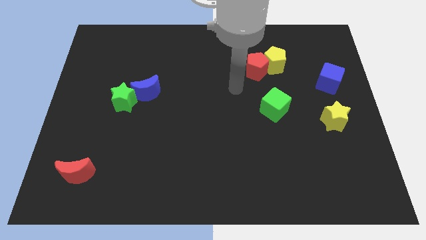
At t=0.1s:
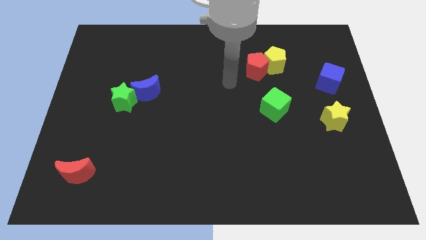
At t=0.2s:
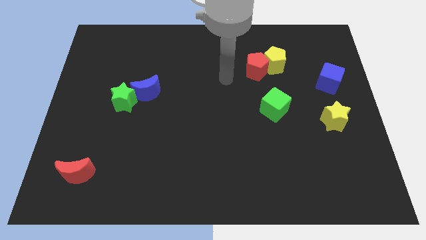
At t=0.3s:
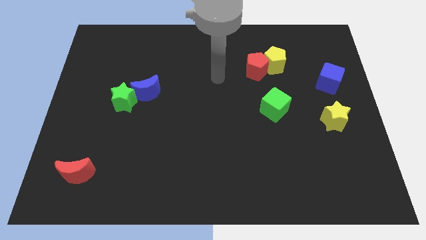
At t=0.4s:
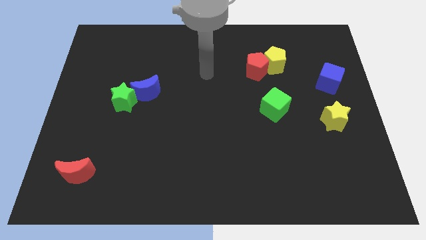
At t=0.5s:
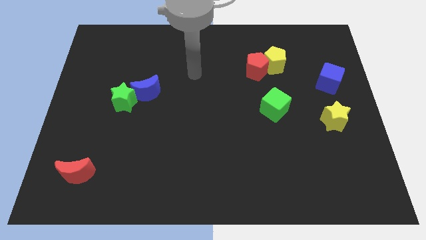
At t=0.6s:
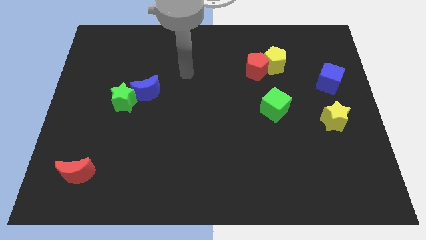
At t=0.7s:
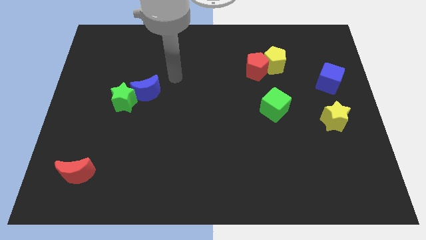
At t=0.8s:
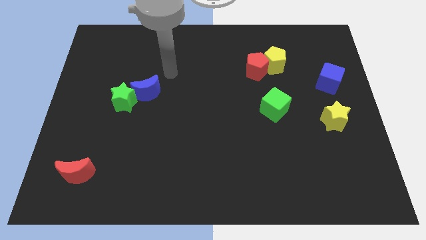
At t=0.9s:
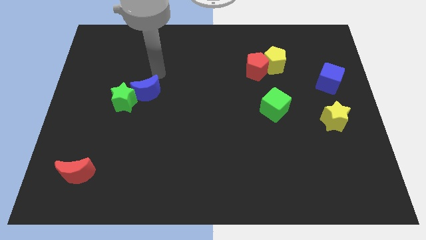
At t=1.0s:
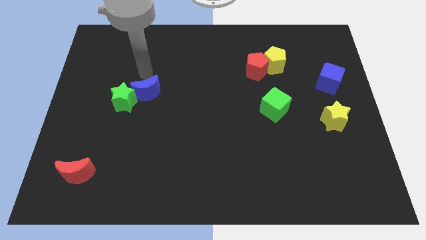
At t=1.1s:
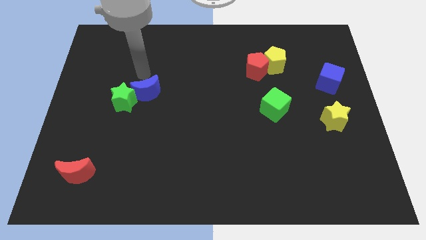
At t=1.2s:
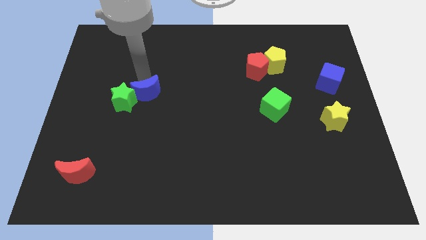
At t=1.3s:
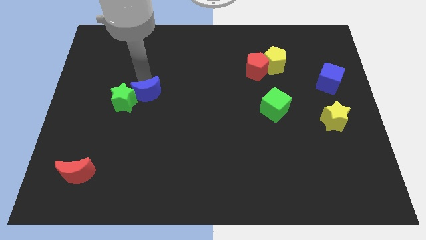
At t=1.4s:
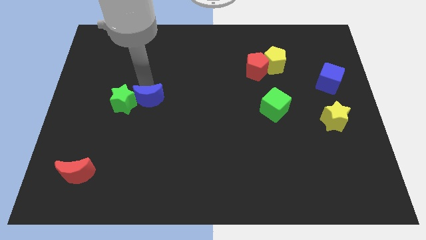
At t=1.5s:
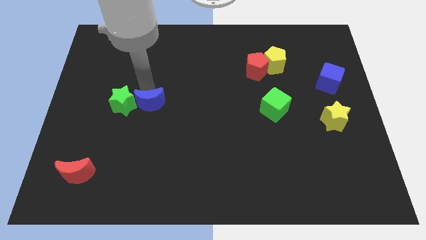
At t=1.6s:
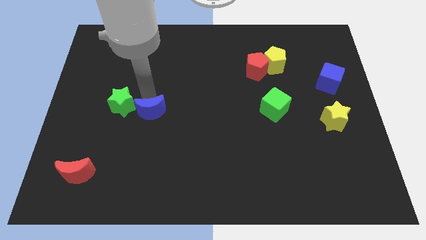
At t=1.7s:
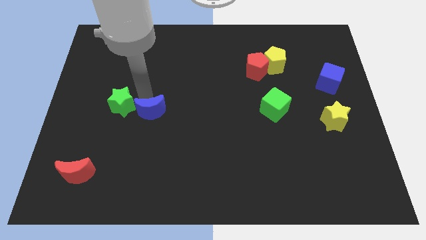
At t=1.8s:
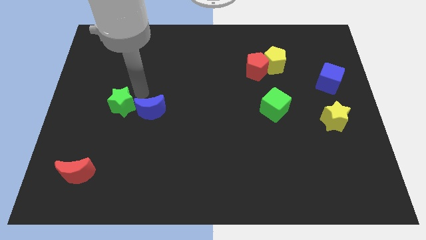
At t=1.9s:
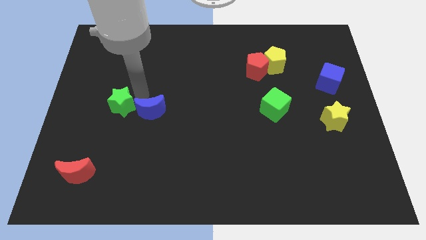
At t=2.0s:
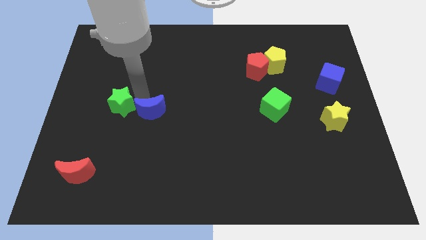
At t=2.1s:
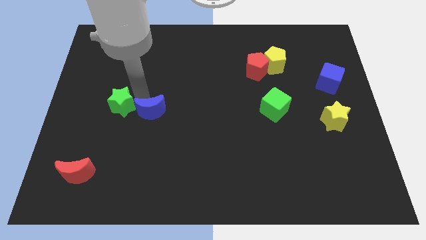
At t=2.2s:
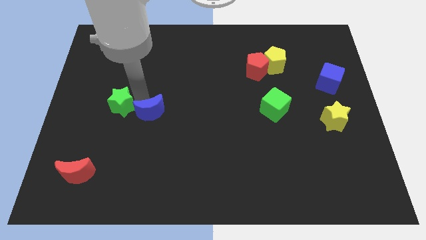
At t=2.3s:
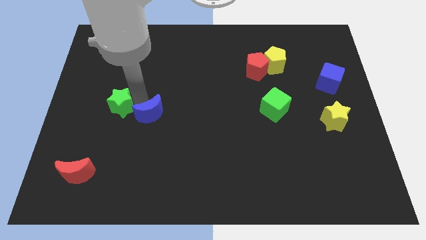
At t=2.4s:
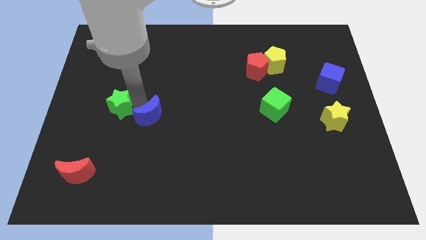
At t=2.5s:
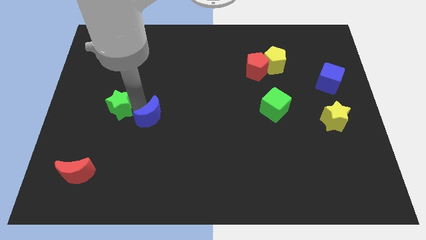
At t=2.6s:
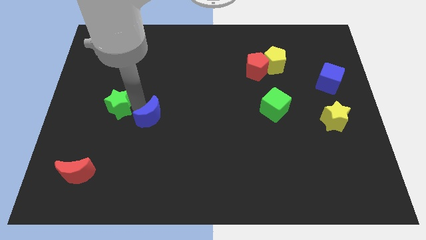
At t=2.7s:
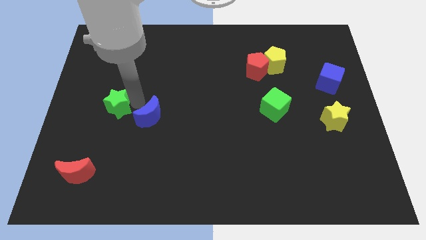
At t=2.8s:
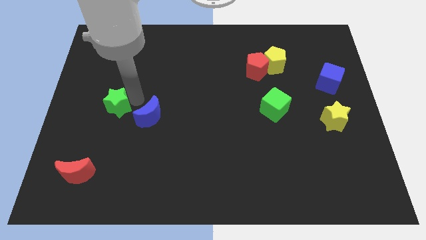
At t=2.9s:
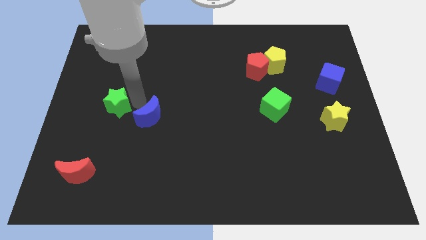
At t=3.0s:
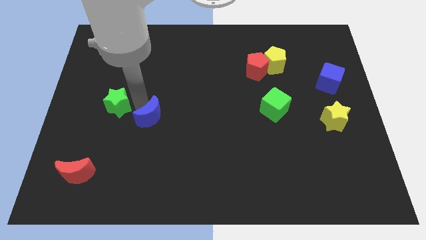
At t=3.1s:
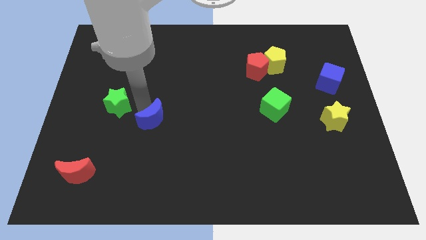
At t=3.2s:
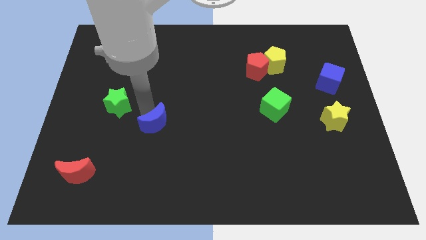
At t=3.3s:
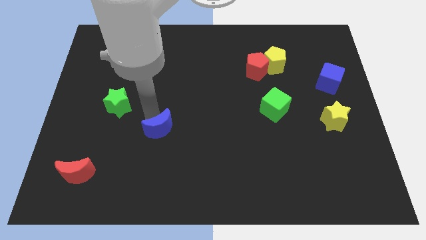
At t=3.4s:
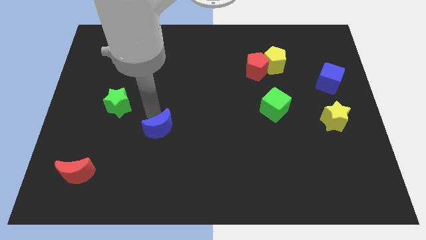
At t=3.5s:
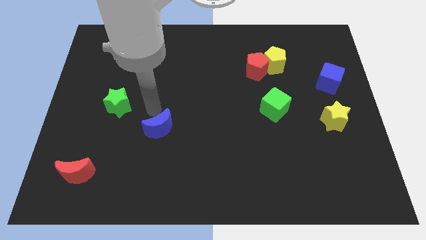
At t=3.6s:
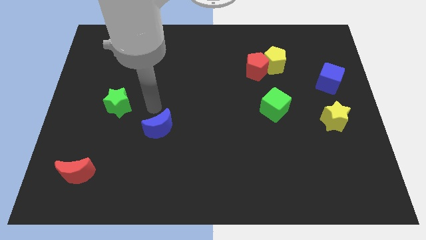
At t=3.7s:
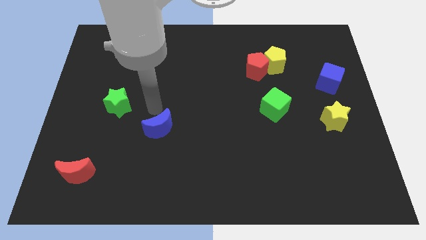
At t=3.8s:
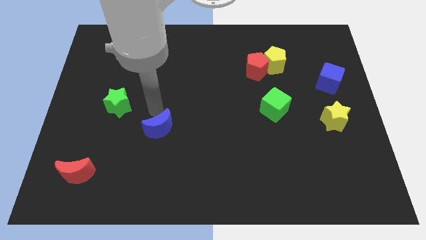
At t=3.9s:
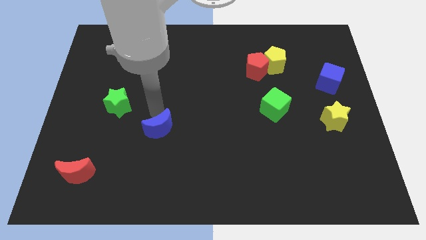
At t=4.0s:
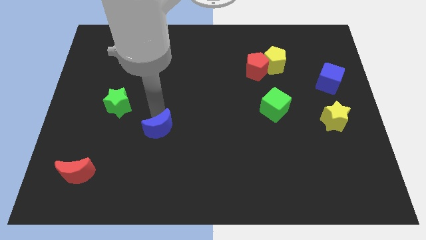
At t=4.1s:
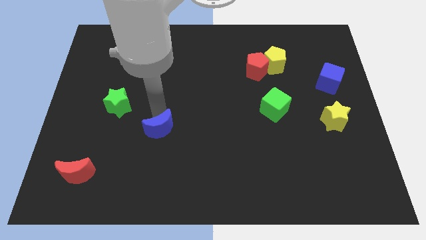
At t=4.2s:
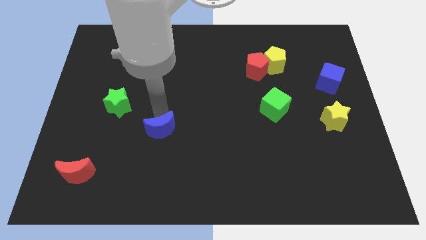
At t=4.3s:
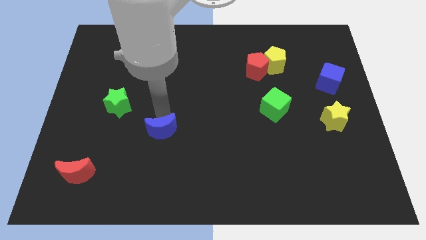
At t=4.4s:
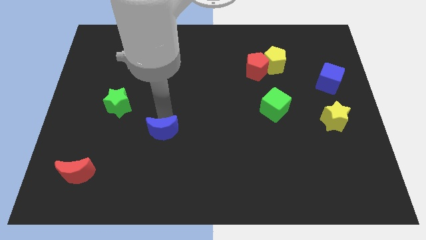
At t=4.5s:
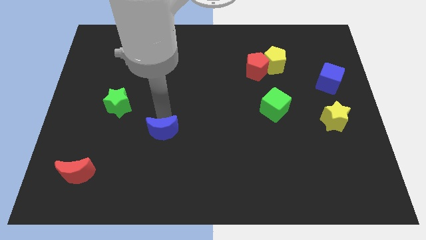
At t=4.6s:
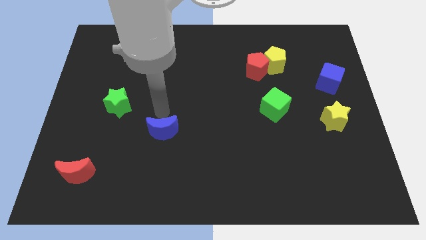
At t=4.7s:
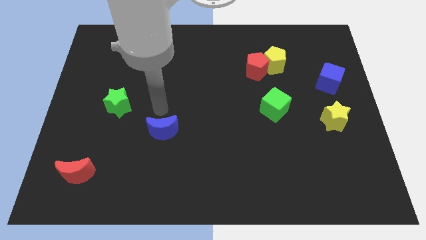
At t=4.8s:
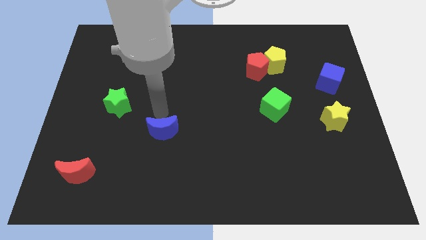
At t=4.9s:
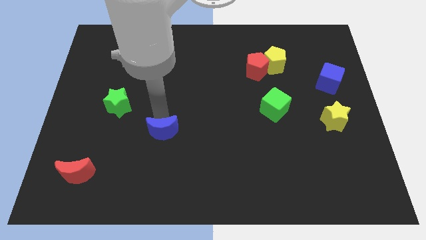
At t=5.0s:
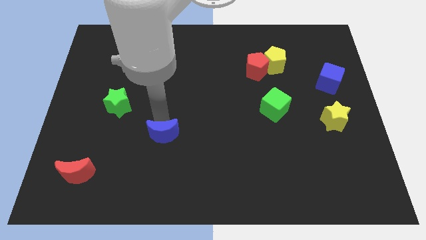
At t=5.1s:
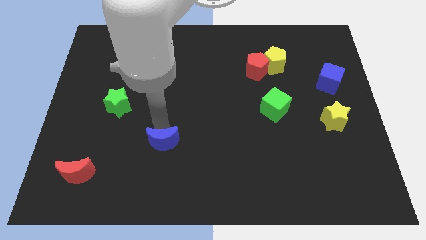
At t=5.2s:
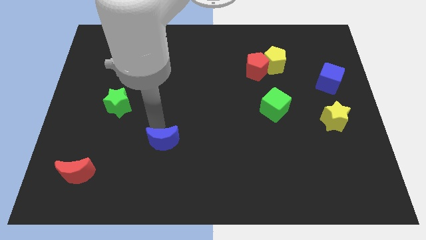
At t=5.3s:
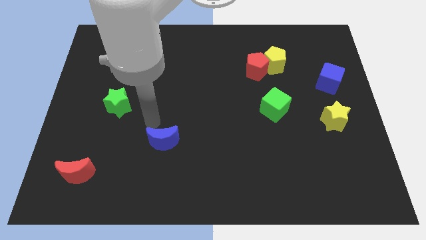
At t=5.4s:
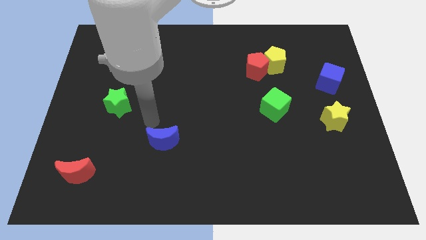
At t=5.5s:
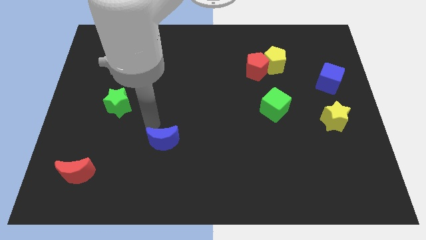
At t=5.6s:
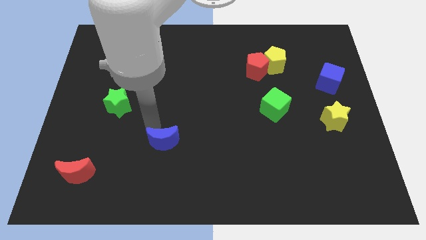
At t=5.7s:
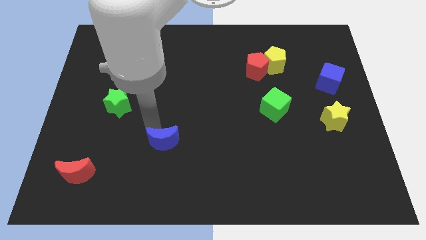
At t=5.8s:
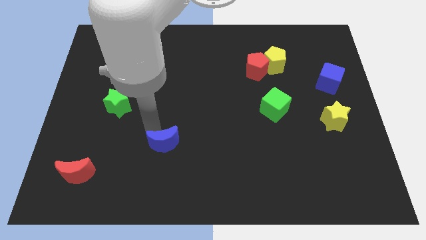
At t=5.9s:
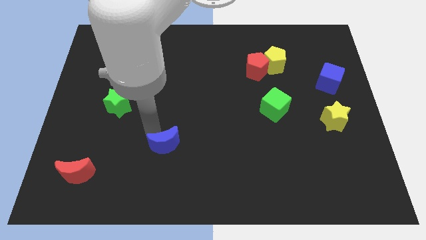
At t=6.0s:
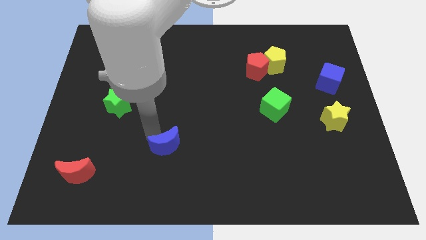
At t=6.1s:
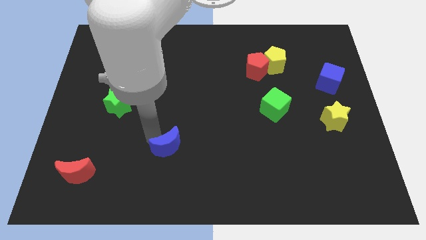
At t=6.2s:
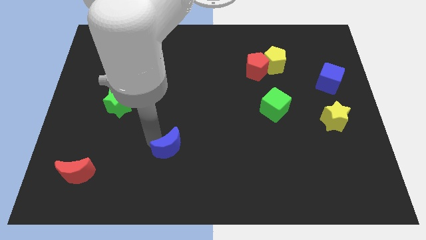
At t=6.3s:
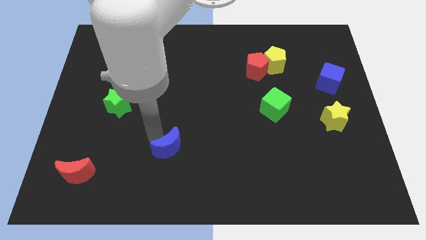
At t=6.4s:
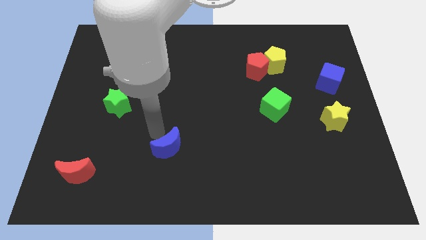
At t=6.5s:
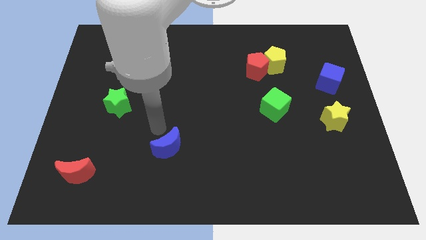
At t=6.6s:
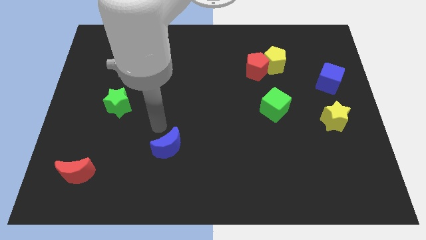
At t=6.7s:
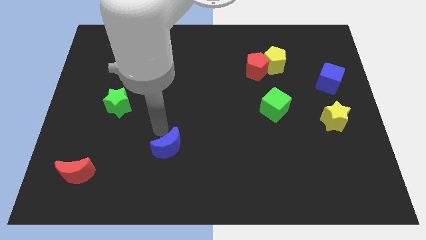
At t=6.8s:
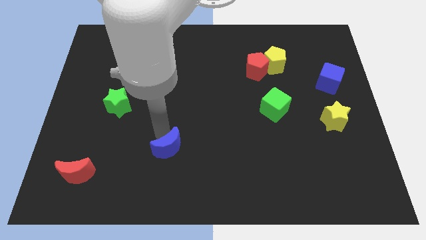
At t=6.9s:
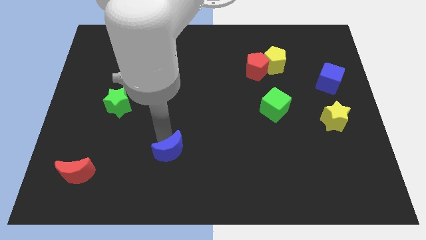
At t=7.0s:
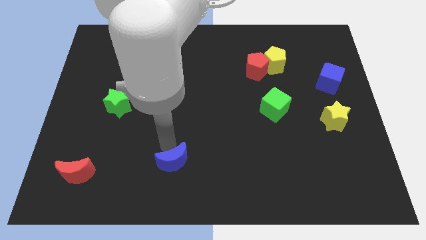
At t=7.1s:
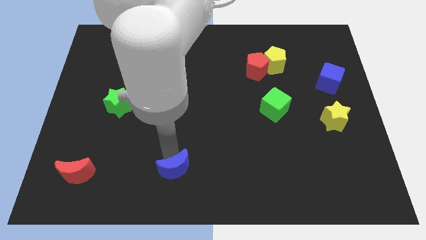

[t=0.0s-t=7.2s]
push the blue moon to the bottom side
